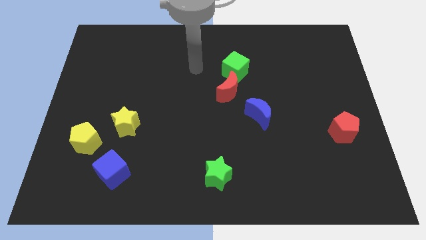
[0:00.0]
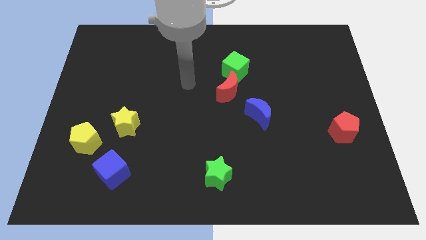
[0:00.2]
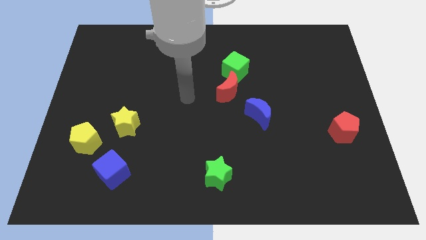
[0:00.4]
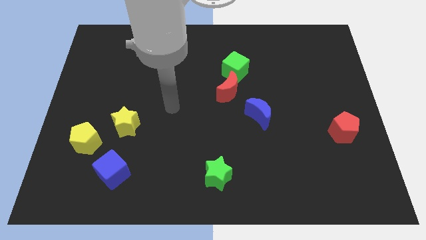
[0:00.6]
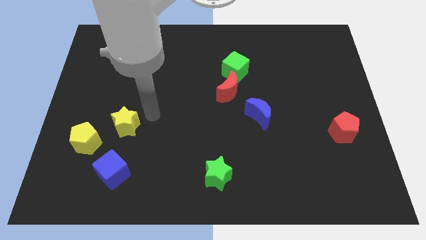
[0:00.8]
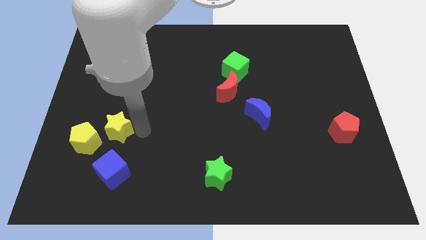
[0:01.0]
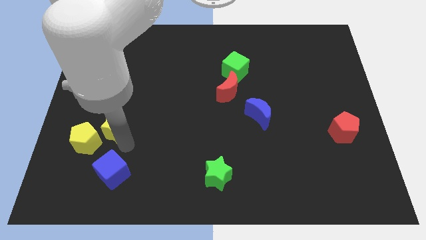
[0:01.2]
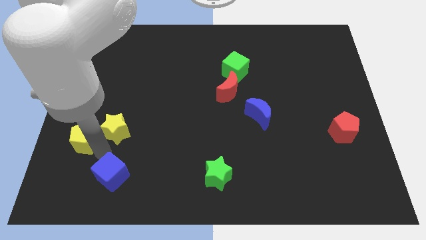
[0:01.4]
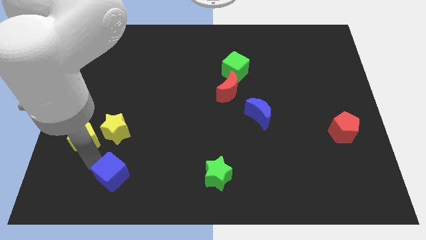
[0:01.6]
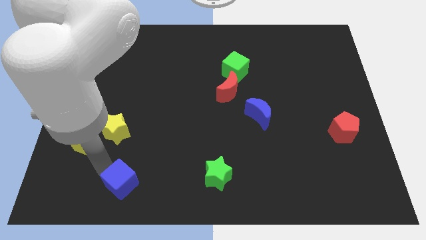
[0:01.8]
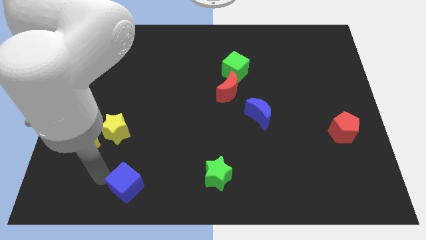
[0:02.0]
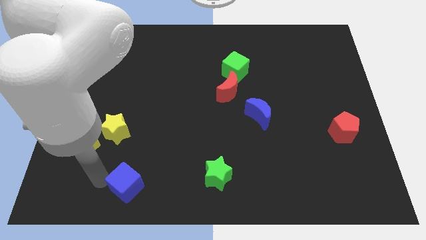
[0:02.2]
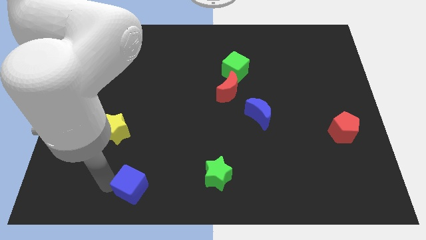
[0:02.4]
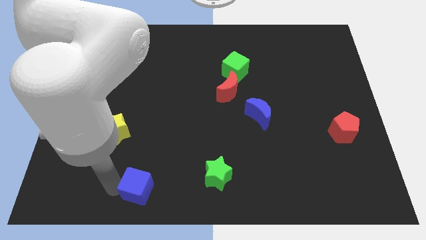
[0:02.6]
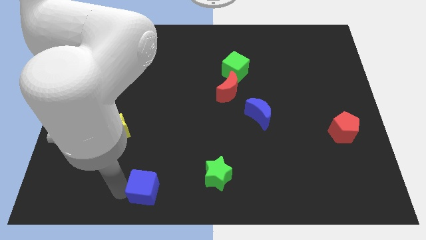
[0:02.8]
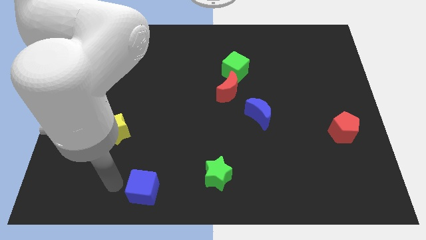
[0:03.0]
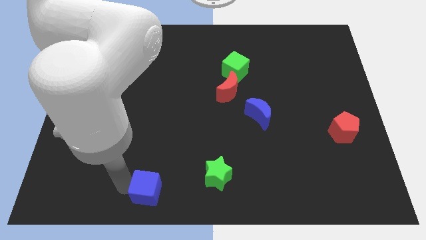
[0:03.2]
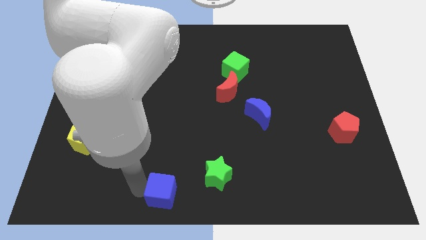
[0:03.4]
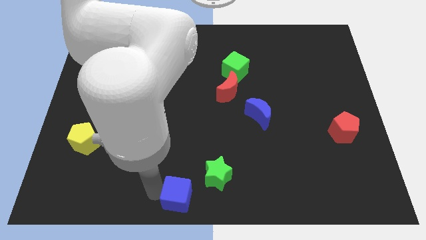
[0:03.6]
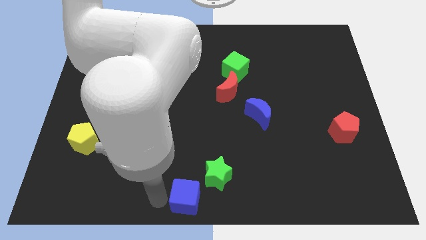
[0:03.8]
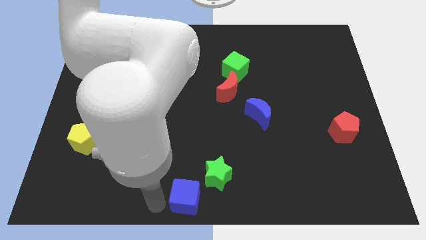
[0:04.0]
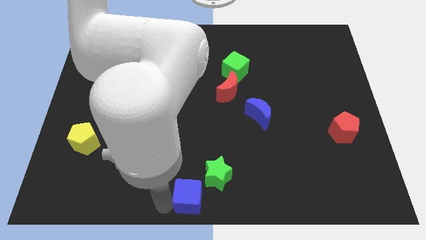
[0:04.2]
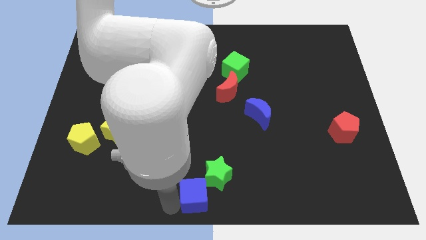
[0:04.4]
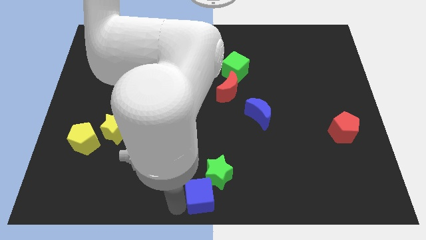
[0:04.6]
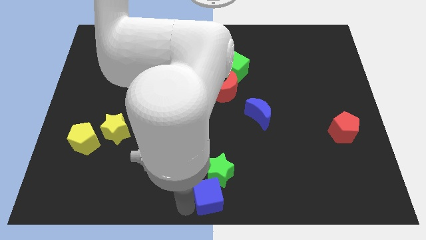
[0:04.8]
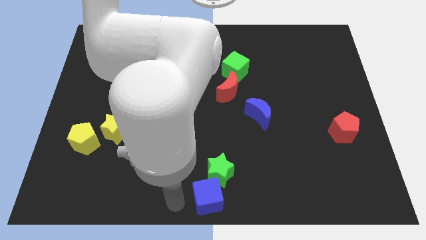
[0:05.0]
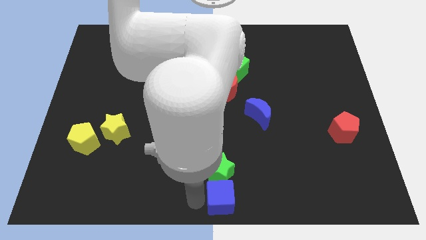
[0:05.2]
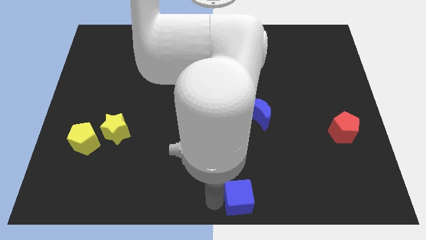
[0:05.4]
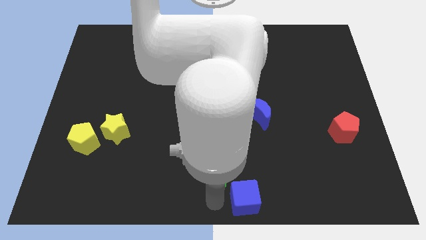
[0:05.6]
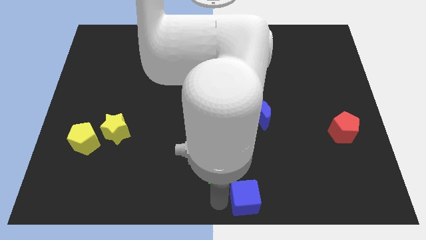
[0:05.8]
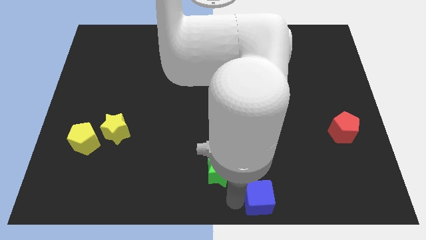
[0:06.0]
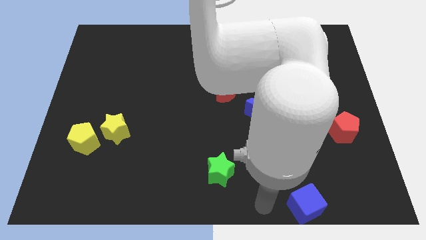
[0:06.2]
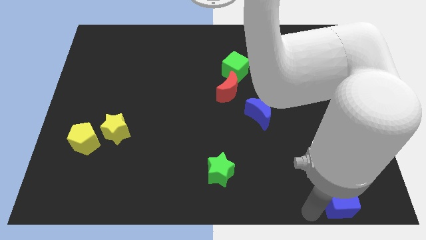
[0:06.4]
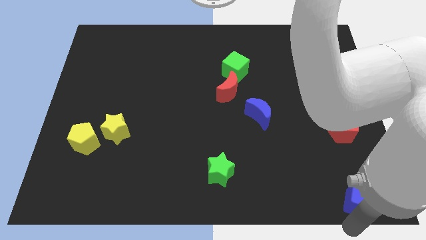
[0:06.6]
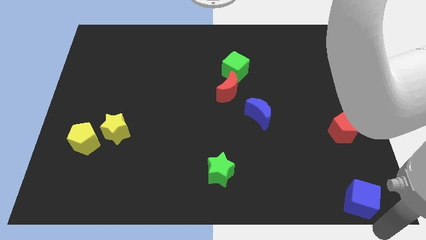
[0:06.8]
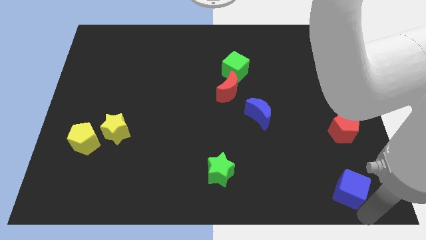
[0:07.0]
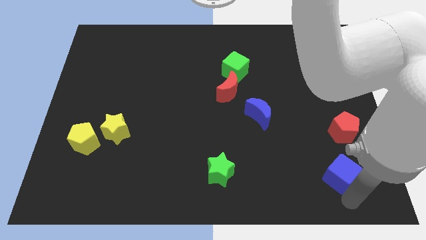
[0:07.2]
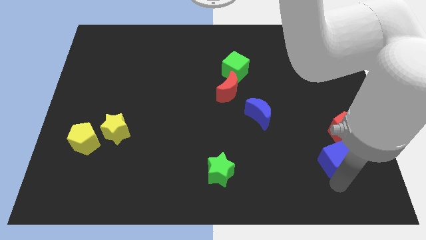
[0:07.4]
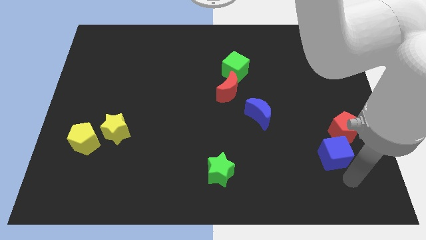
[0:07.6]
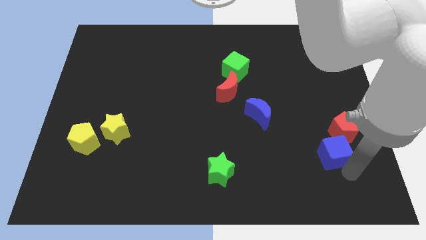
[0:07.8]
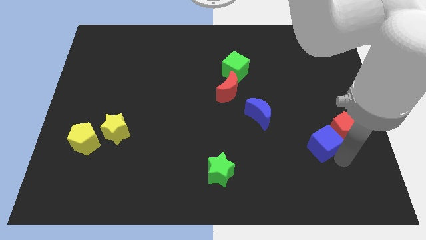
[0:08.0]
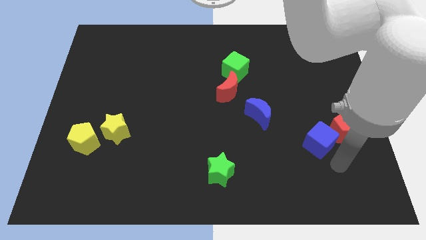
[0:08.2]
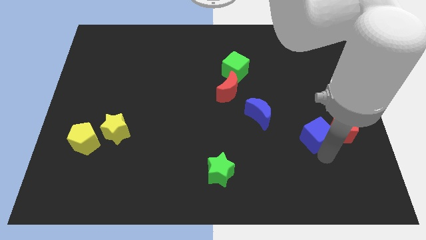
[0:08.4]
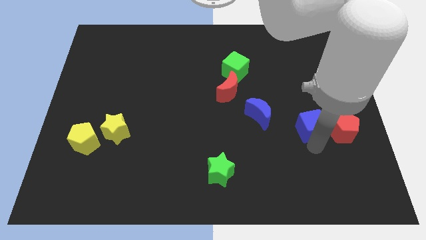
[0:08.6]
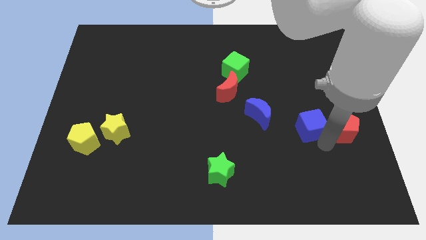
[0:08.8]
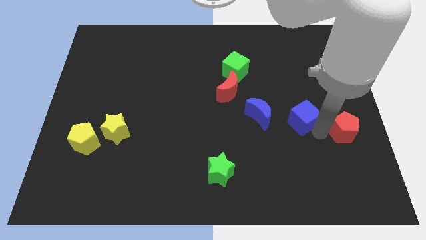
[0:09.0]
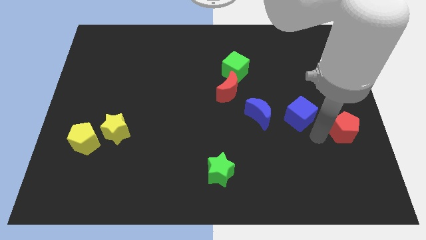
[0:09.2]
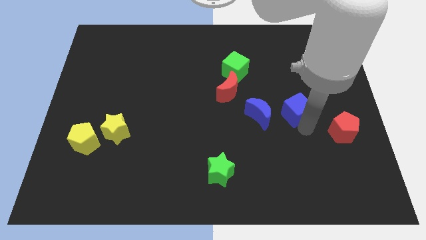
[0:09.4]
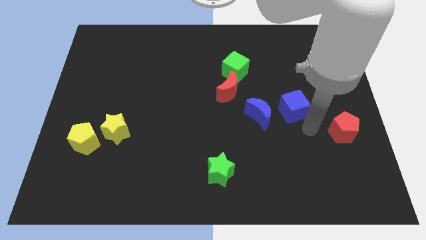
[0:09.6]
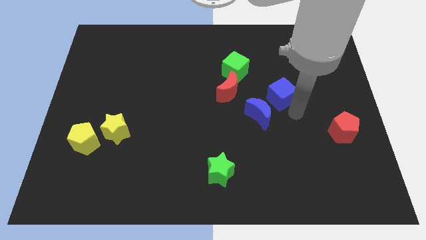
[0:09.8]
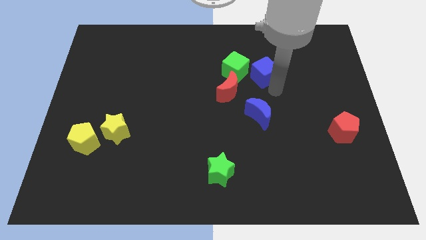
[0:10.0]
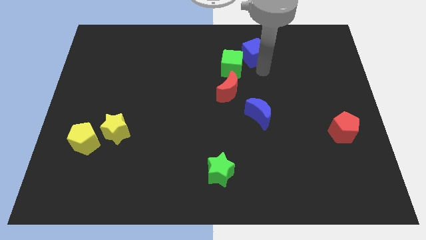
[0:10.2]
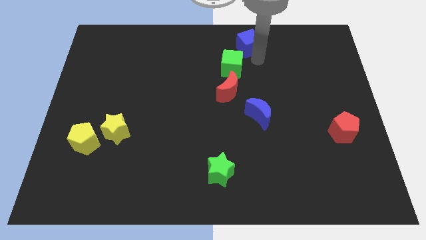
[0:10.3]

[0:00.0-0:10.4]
move the blue cube to the top side
